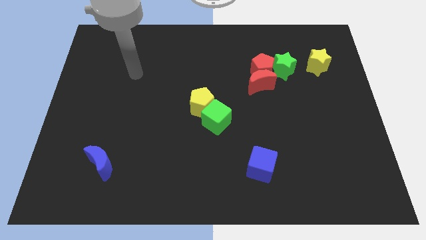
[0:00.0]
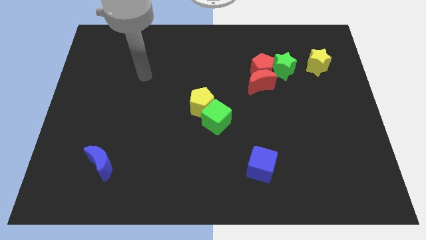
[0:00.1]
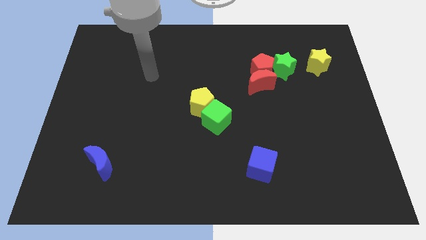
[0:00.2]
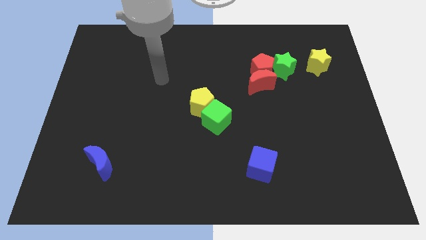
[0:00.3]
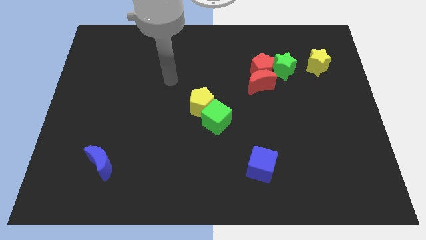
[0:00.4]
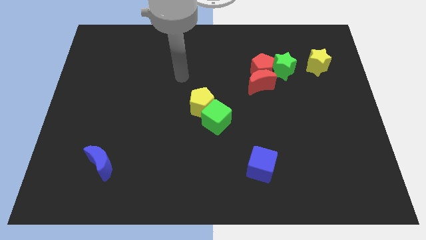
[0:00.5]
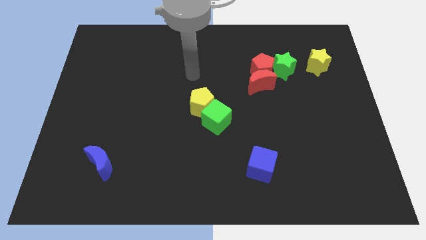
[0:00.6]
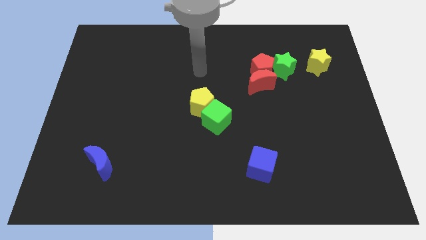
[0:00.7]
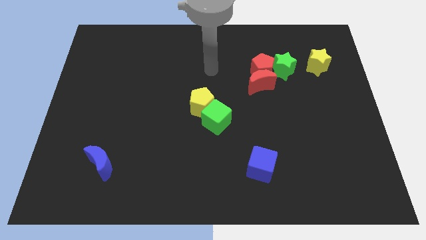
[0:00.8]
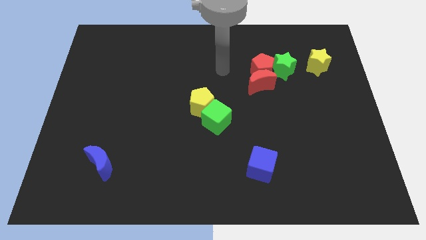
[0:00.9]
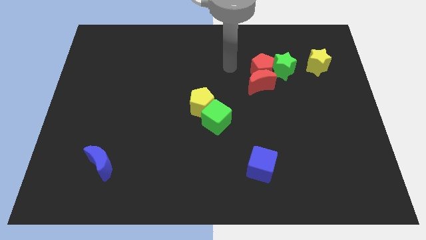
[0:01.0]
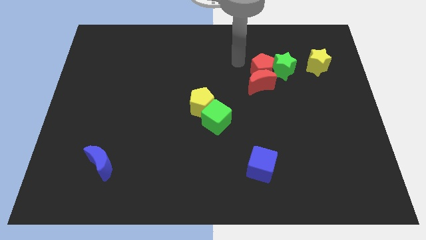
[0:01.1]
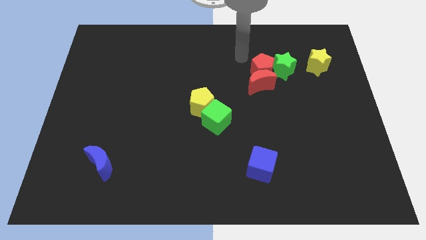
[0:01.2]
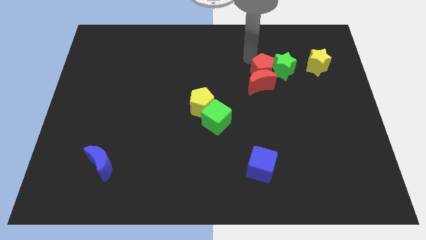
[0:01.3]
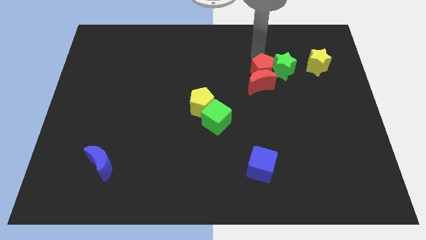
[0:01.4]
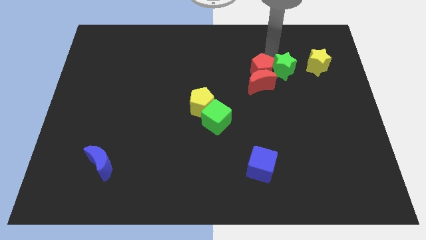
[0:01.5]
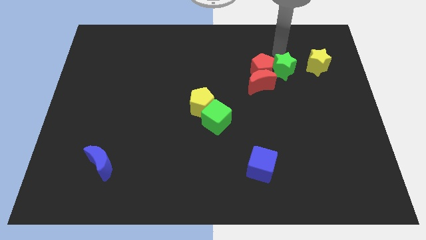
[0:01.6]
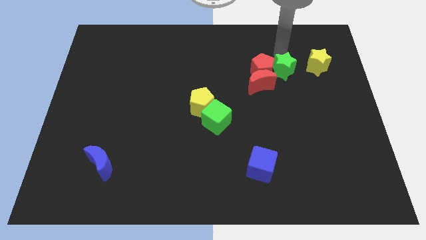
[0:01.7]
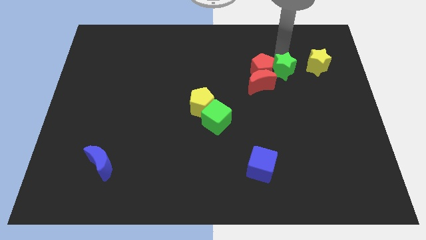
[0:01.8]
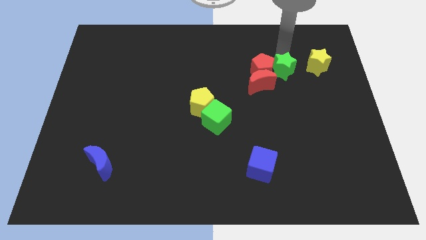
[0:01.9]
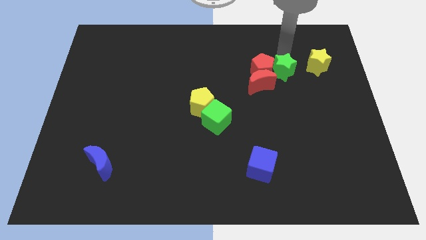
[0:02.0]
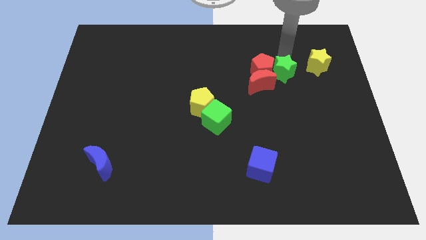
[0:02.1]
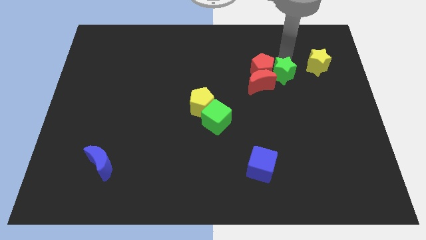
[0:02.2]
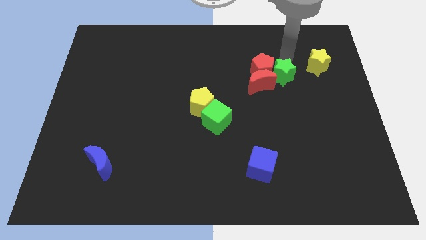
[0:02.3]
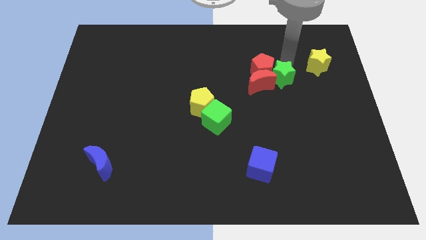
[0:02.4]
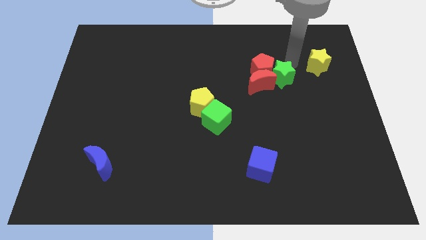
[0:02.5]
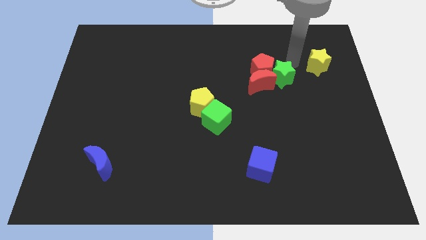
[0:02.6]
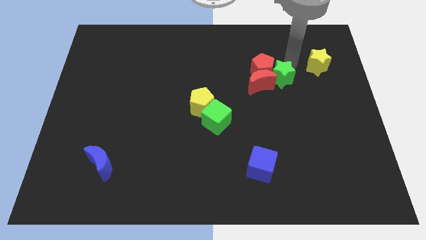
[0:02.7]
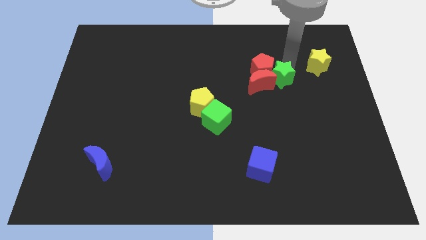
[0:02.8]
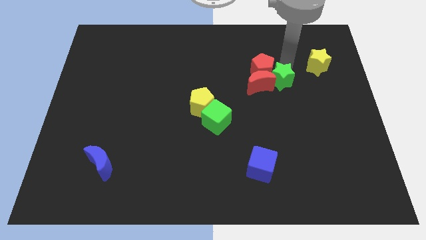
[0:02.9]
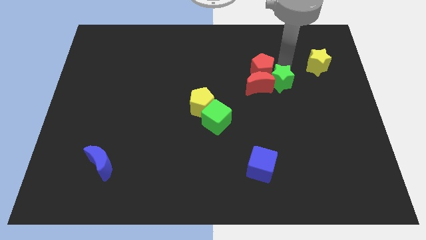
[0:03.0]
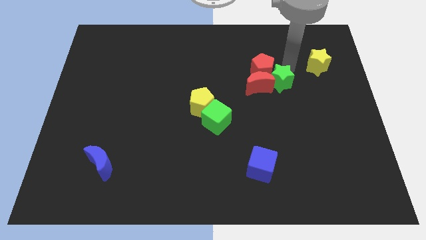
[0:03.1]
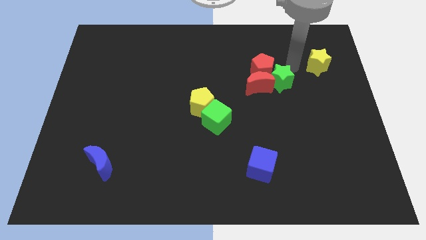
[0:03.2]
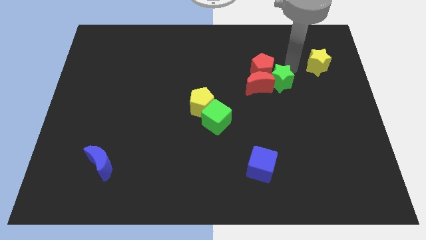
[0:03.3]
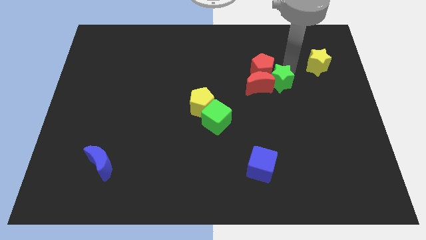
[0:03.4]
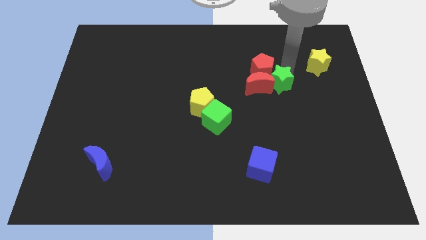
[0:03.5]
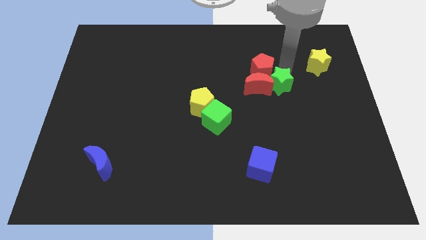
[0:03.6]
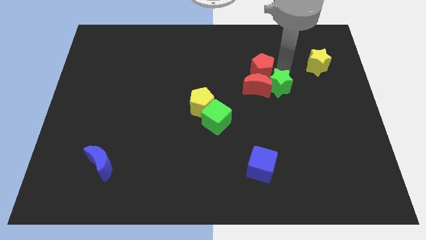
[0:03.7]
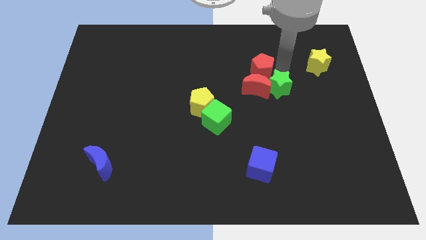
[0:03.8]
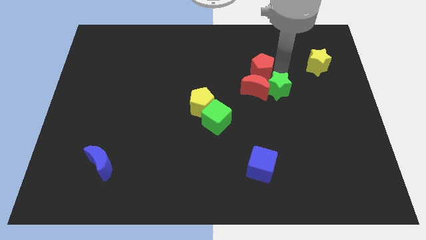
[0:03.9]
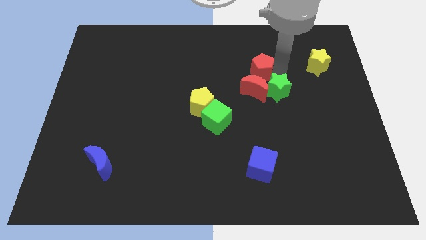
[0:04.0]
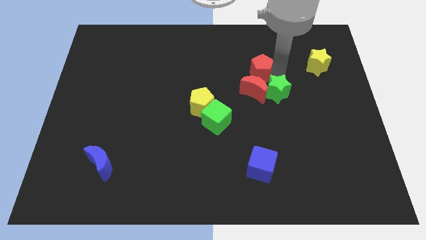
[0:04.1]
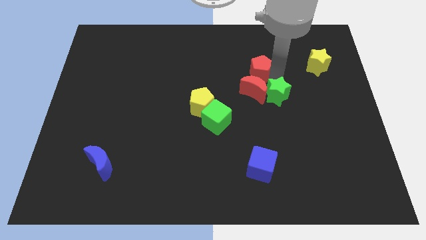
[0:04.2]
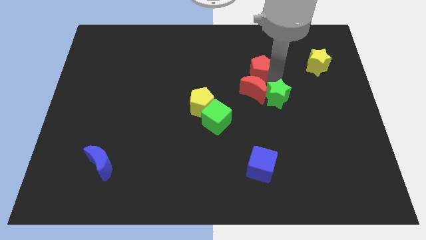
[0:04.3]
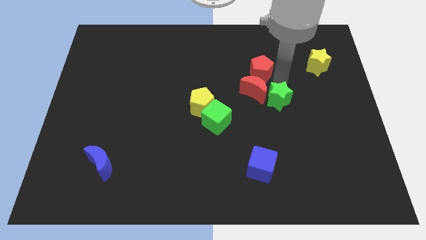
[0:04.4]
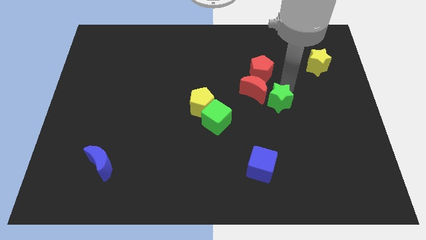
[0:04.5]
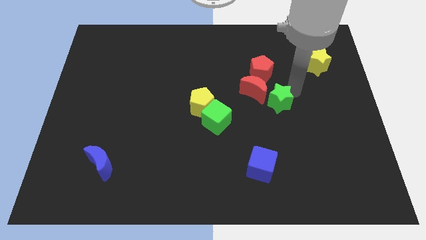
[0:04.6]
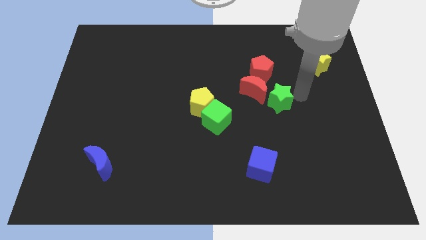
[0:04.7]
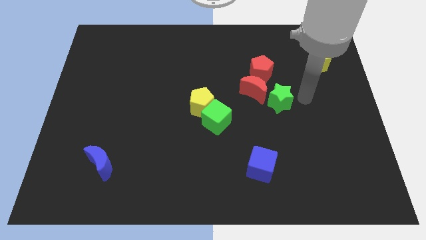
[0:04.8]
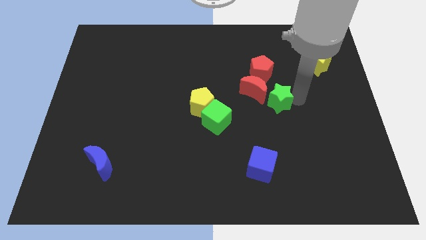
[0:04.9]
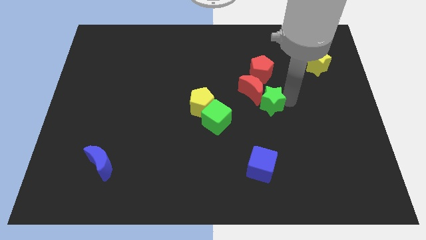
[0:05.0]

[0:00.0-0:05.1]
slide the green star to the right side of the yellow pentagon

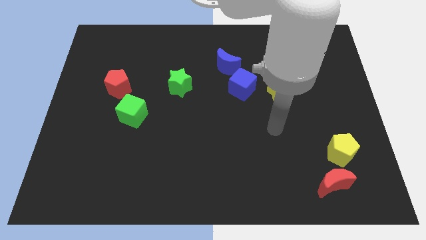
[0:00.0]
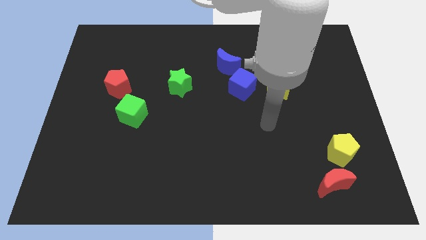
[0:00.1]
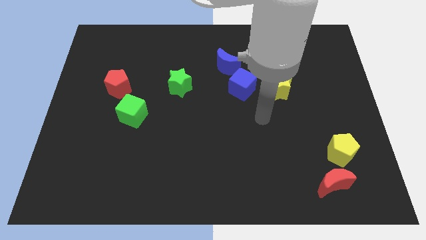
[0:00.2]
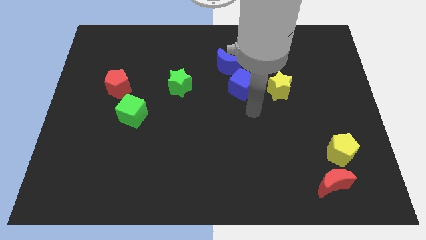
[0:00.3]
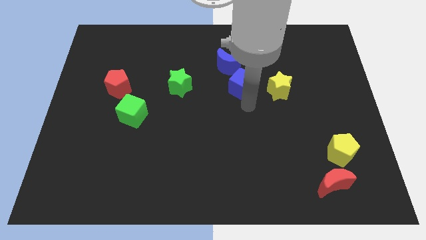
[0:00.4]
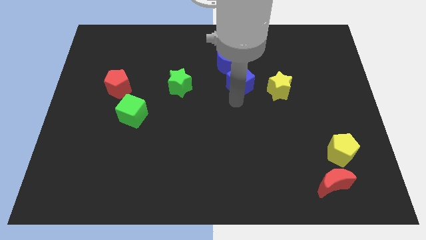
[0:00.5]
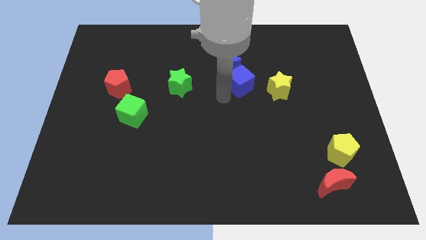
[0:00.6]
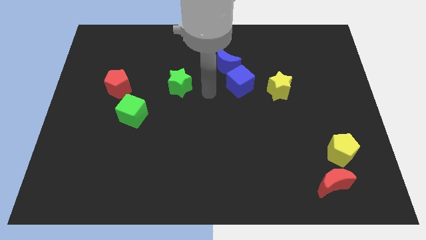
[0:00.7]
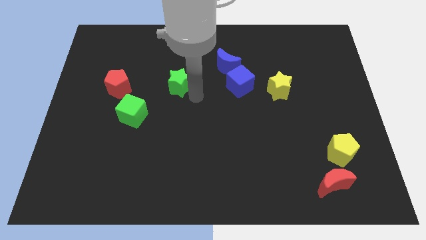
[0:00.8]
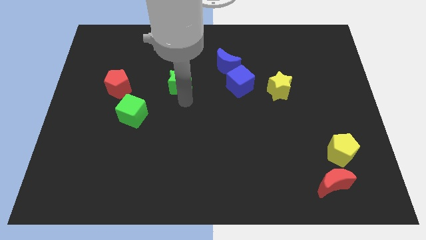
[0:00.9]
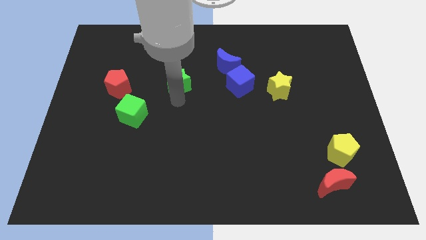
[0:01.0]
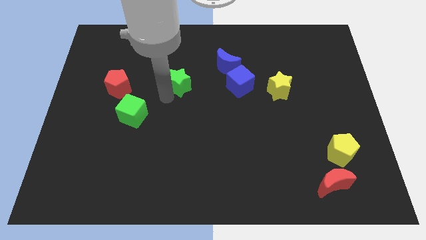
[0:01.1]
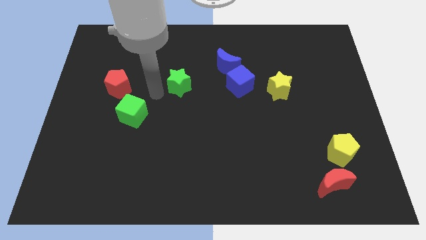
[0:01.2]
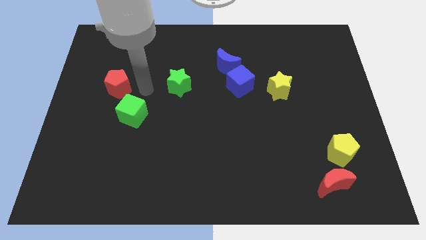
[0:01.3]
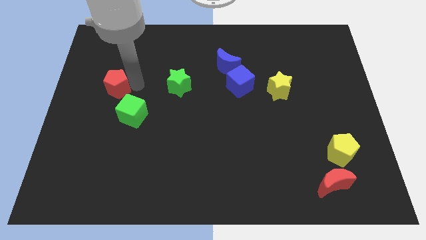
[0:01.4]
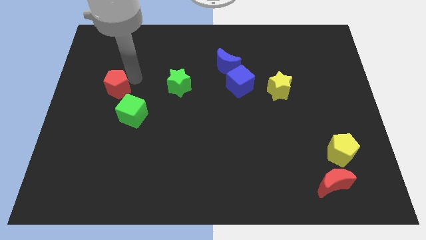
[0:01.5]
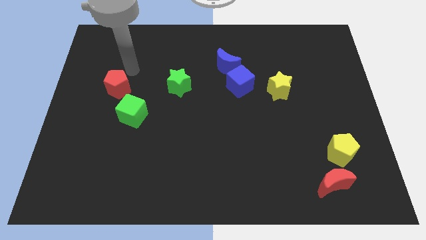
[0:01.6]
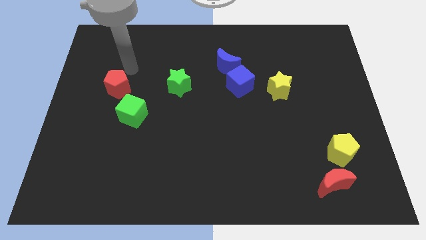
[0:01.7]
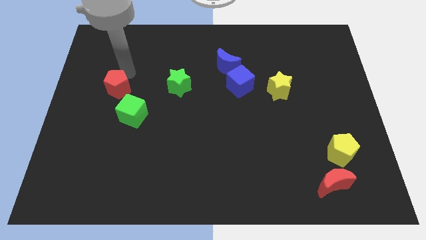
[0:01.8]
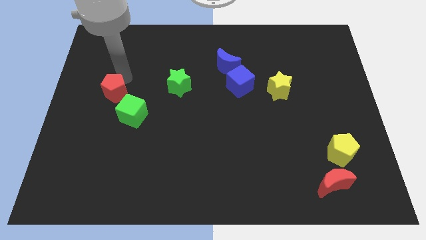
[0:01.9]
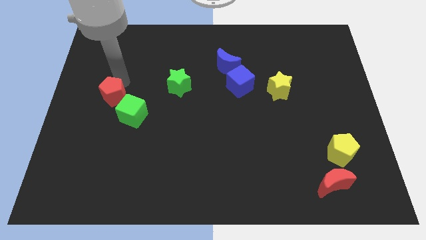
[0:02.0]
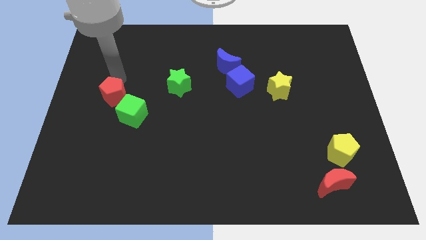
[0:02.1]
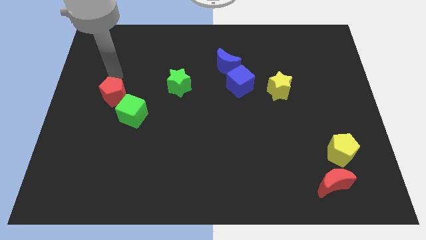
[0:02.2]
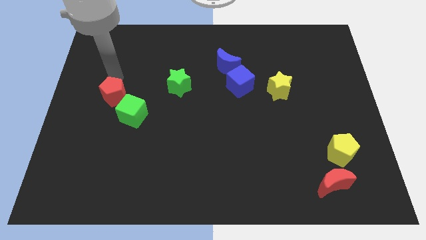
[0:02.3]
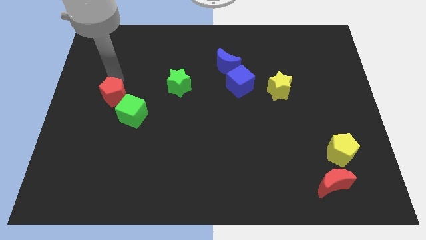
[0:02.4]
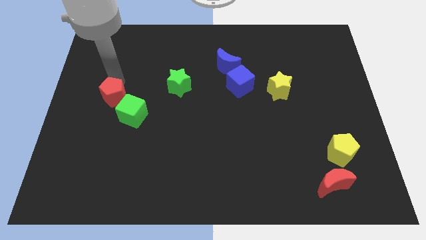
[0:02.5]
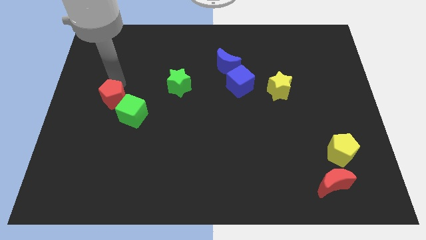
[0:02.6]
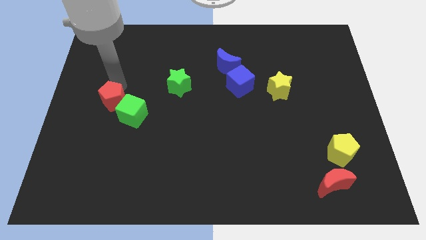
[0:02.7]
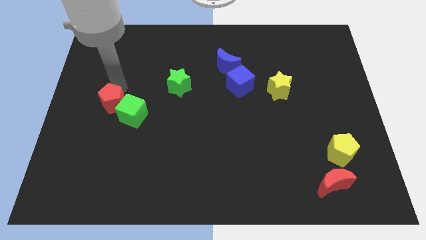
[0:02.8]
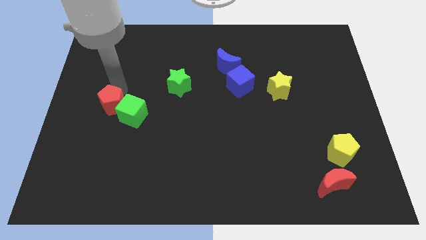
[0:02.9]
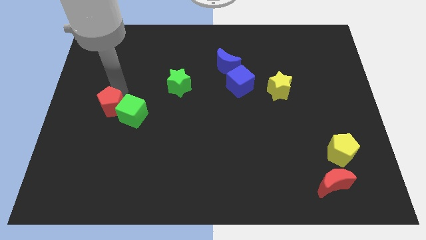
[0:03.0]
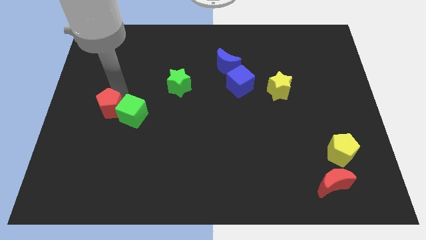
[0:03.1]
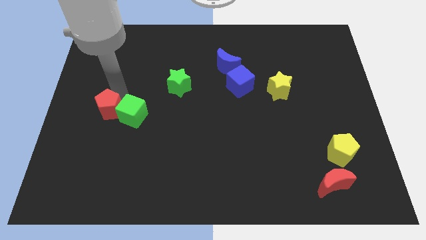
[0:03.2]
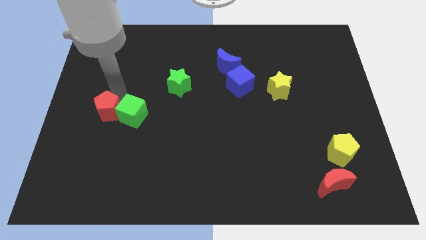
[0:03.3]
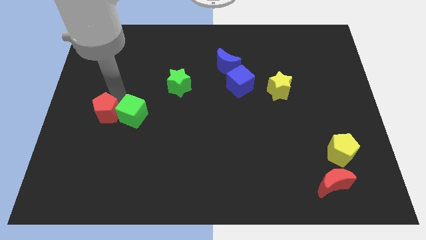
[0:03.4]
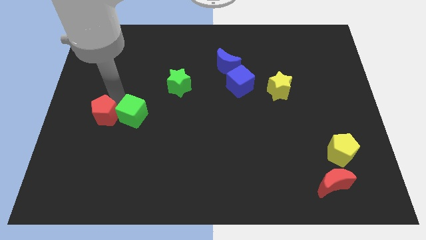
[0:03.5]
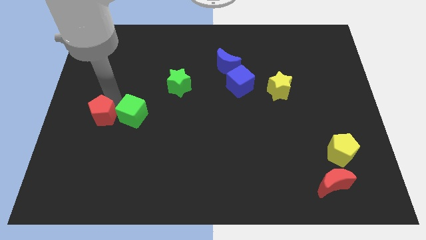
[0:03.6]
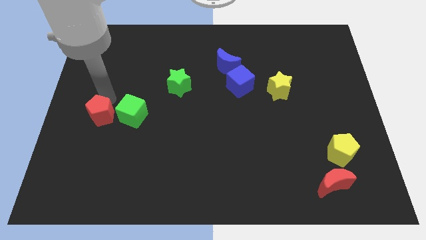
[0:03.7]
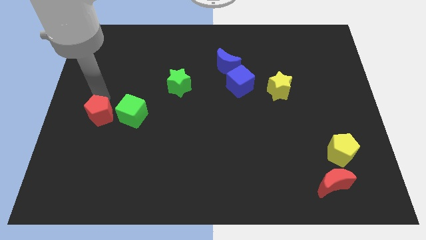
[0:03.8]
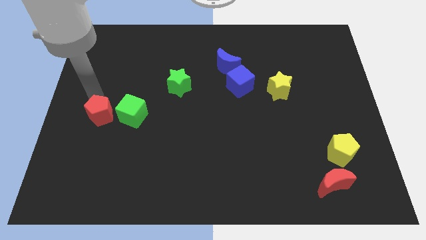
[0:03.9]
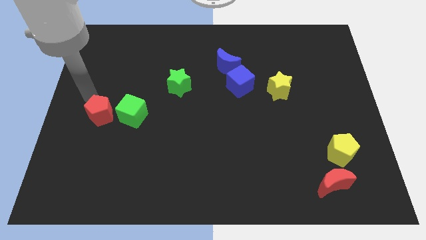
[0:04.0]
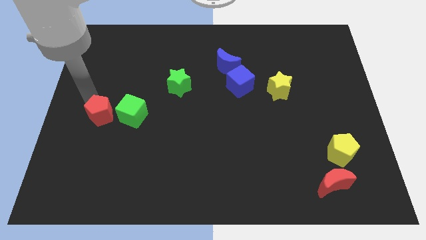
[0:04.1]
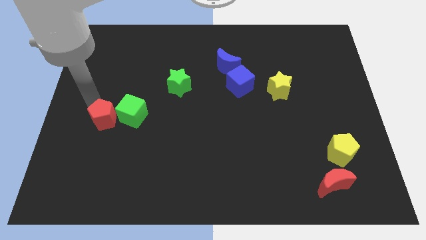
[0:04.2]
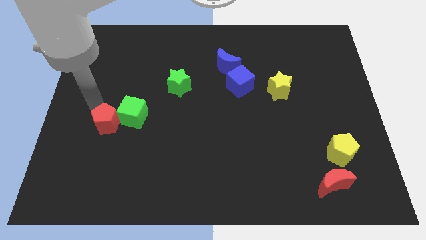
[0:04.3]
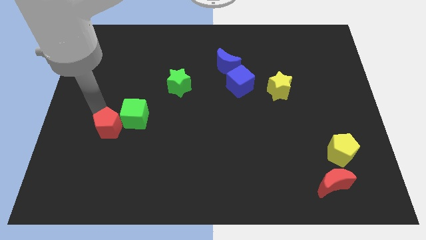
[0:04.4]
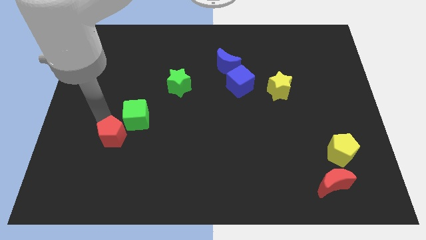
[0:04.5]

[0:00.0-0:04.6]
push the red pentagon to the bottom of the green cube
